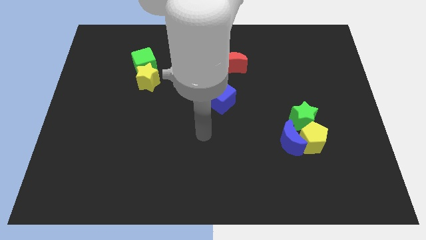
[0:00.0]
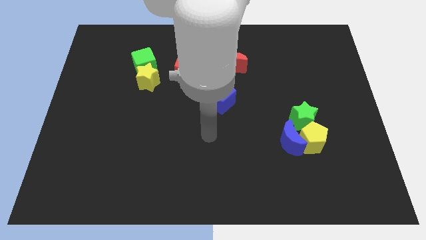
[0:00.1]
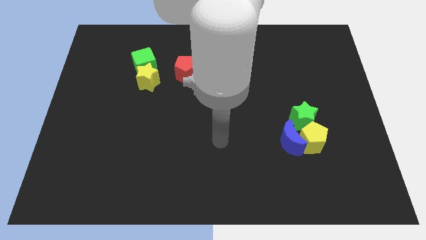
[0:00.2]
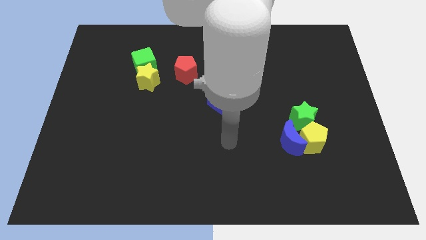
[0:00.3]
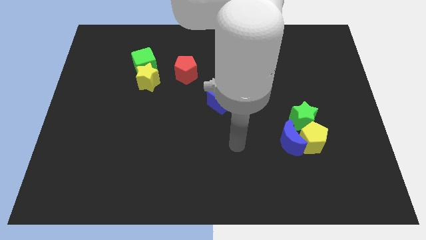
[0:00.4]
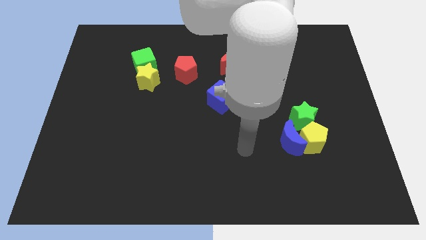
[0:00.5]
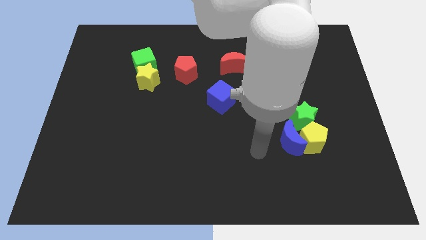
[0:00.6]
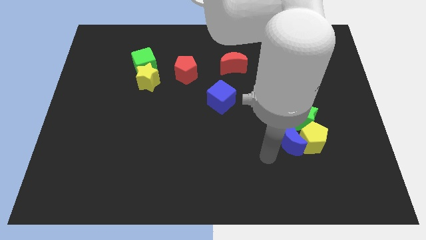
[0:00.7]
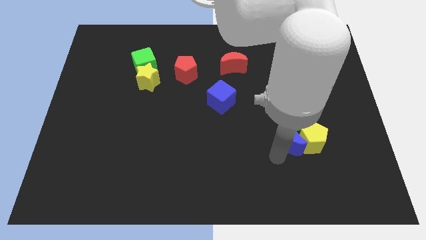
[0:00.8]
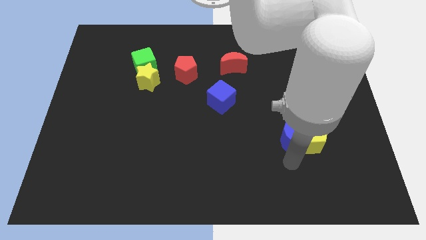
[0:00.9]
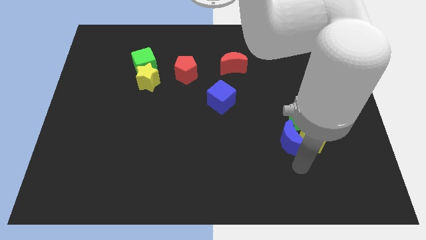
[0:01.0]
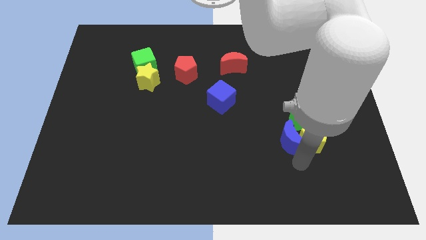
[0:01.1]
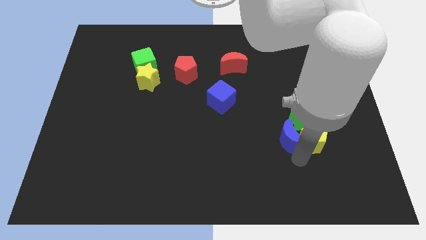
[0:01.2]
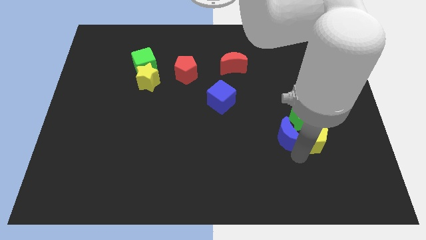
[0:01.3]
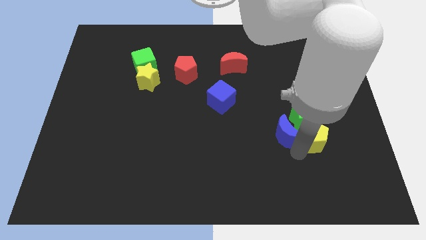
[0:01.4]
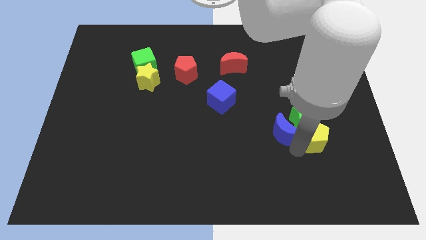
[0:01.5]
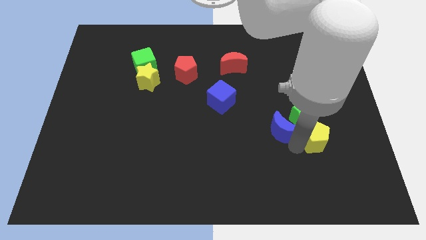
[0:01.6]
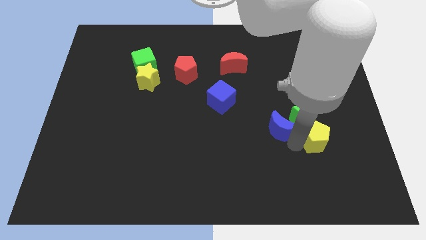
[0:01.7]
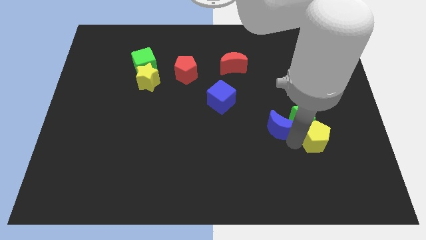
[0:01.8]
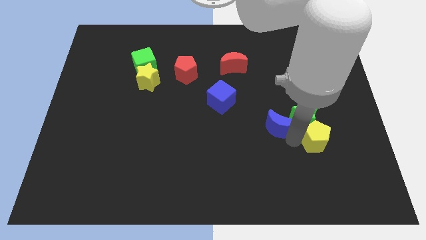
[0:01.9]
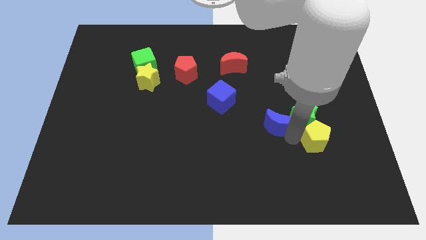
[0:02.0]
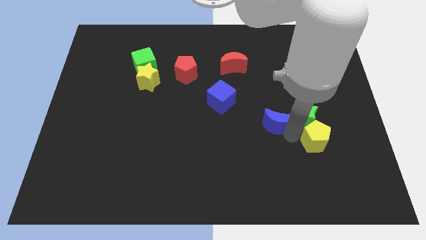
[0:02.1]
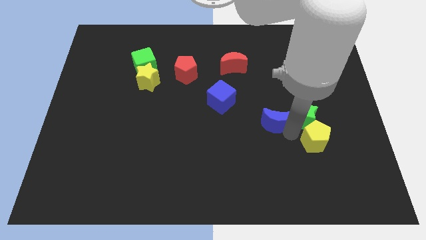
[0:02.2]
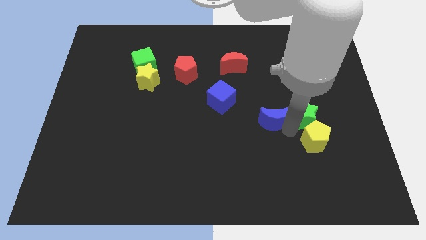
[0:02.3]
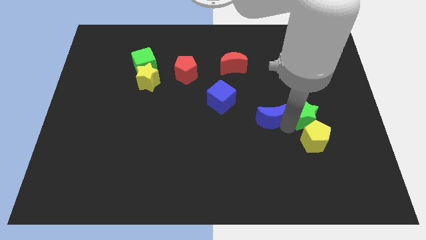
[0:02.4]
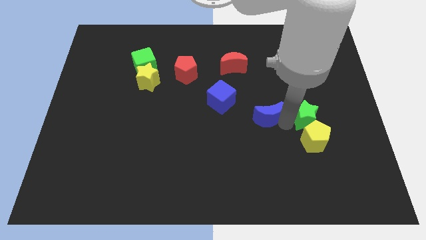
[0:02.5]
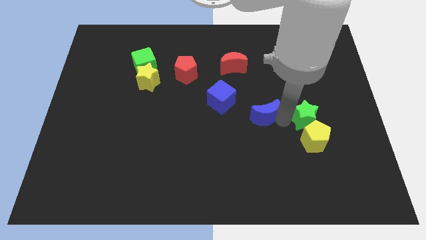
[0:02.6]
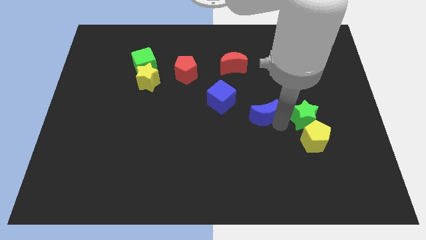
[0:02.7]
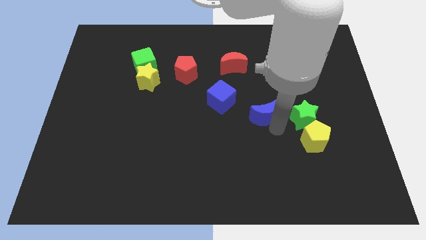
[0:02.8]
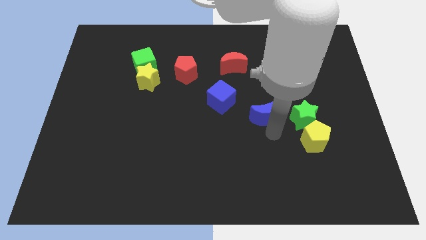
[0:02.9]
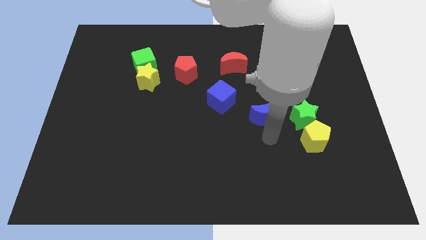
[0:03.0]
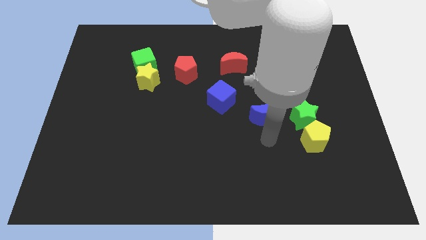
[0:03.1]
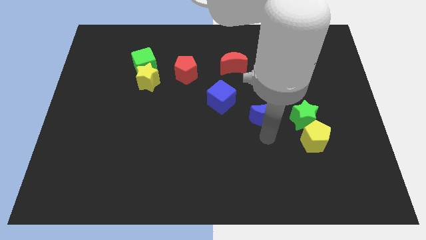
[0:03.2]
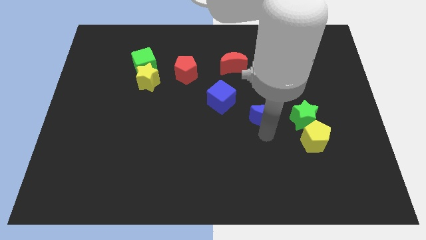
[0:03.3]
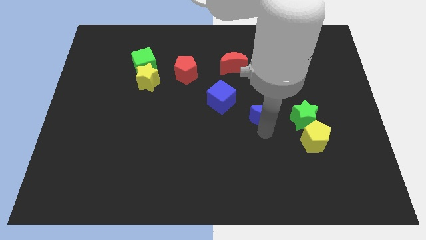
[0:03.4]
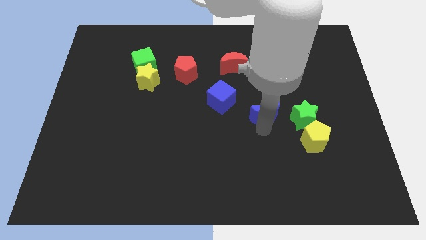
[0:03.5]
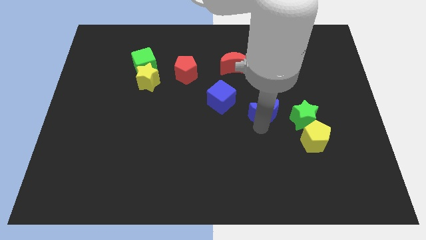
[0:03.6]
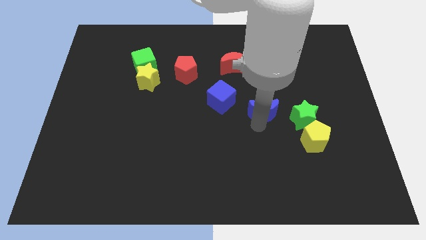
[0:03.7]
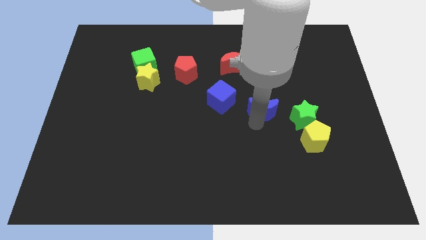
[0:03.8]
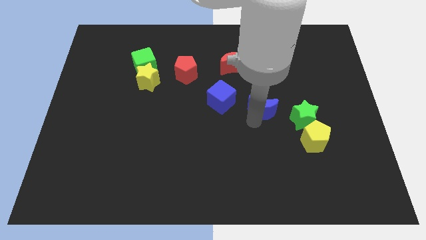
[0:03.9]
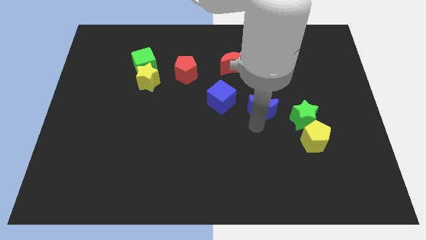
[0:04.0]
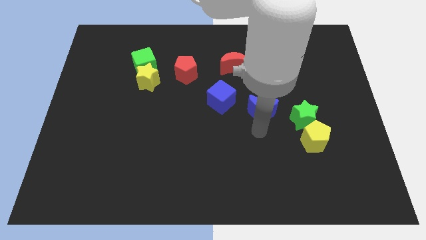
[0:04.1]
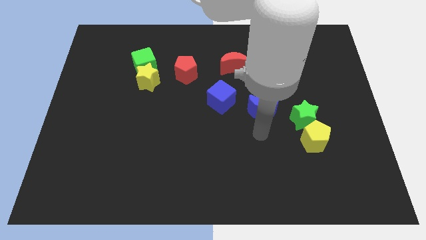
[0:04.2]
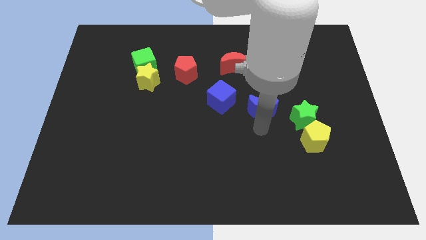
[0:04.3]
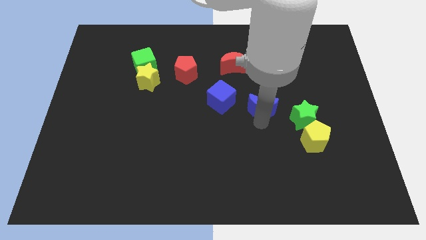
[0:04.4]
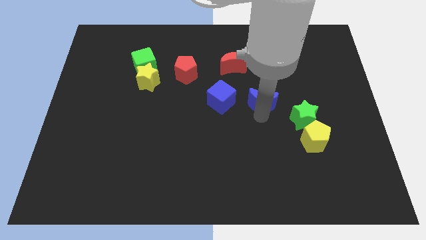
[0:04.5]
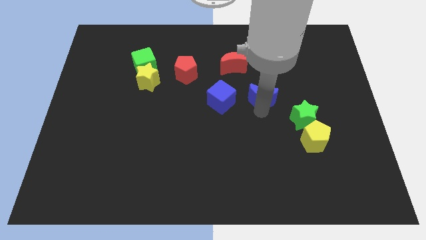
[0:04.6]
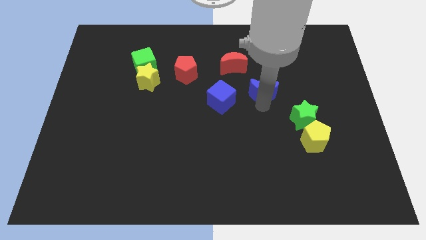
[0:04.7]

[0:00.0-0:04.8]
move the blue moon diagonally down and to the right of the red moon

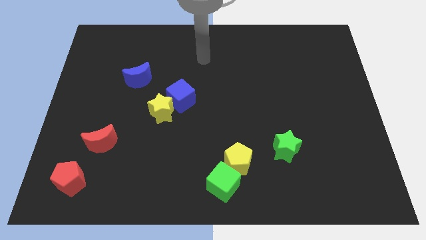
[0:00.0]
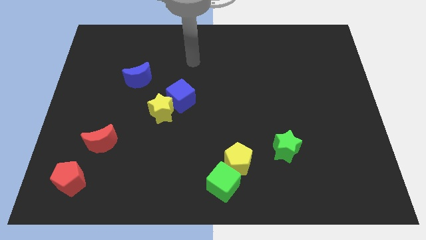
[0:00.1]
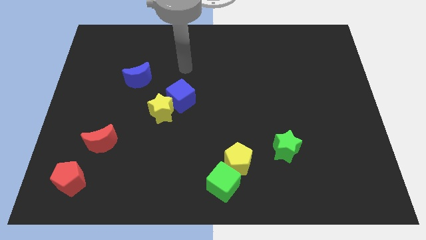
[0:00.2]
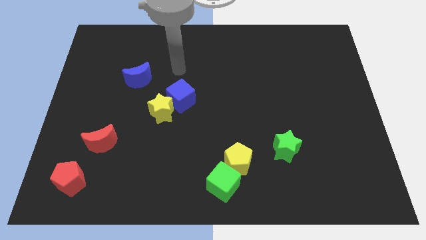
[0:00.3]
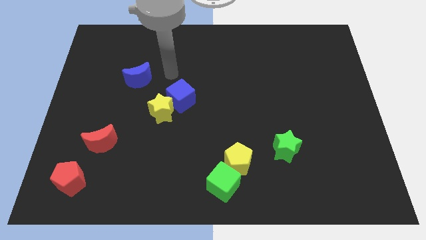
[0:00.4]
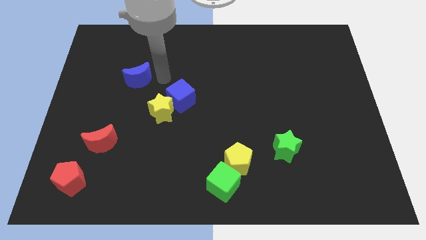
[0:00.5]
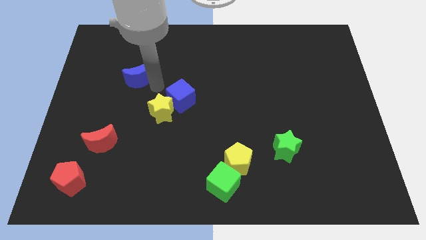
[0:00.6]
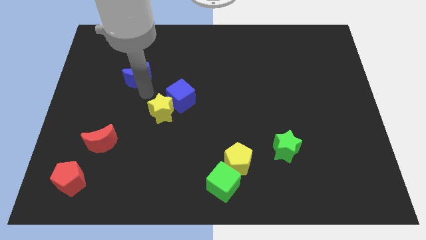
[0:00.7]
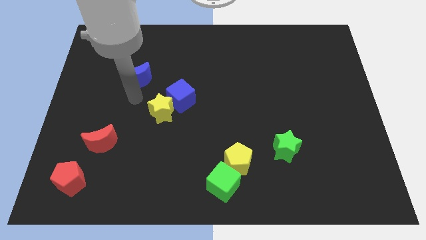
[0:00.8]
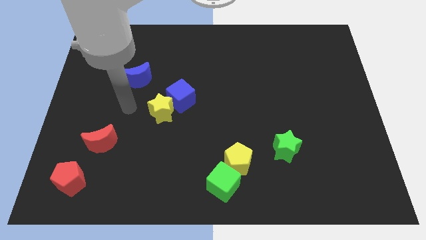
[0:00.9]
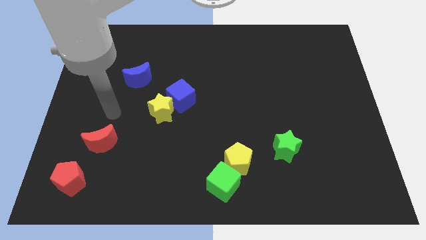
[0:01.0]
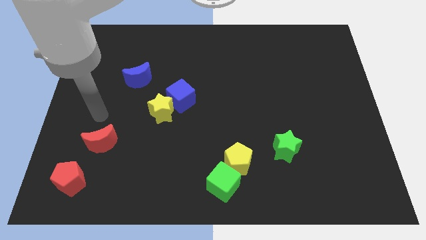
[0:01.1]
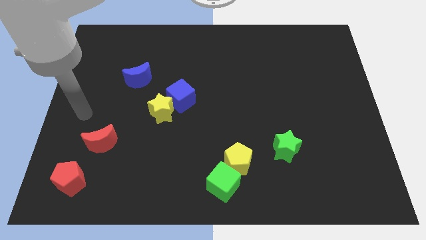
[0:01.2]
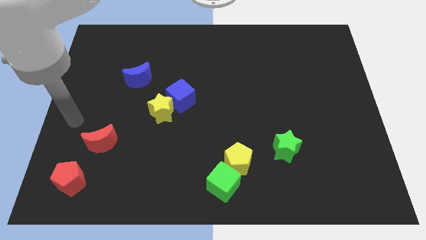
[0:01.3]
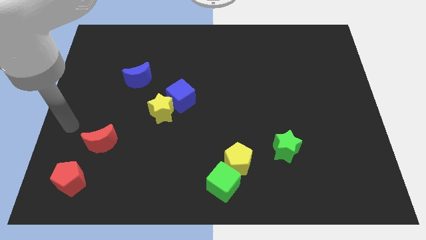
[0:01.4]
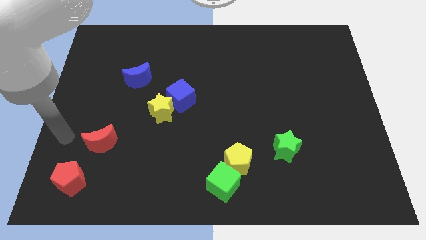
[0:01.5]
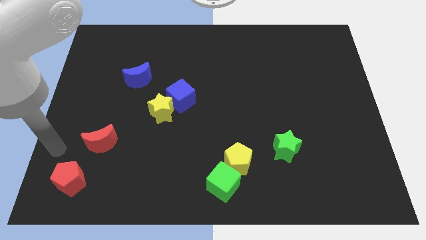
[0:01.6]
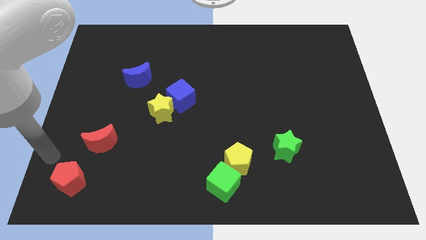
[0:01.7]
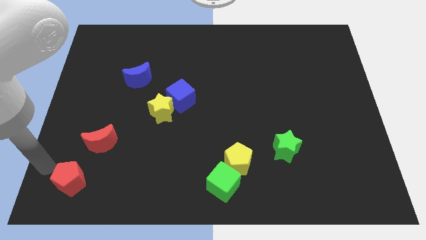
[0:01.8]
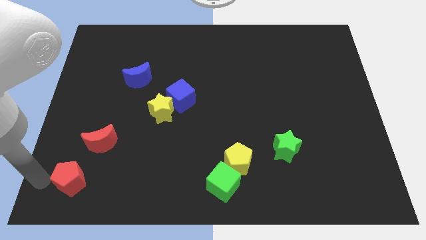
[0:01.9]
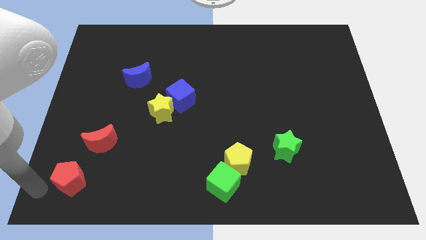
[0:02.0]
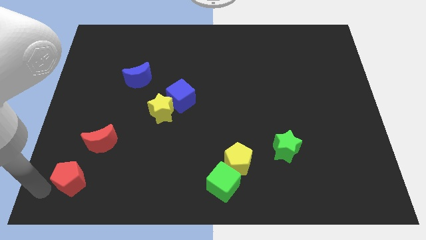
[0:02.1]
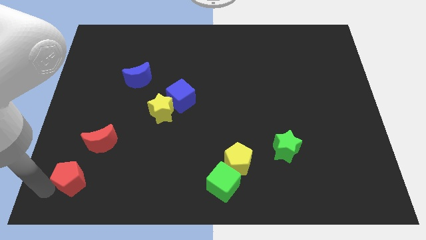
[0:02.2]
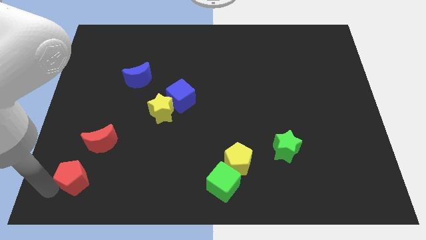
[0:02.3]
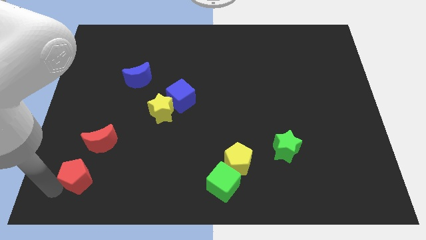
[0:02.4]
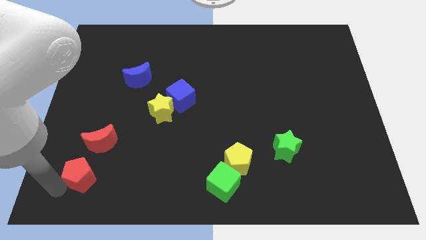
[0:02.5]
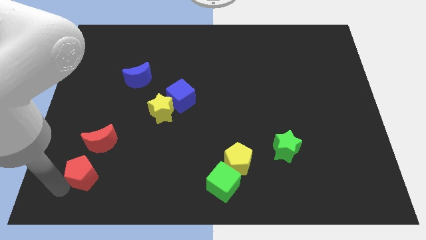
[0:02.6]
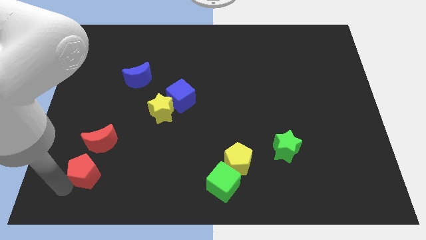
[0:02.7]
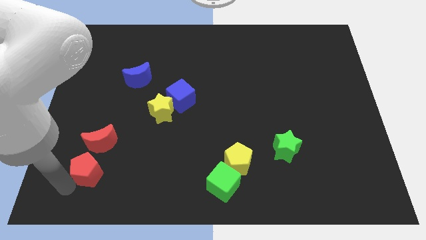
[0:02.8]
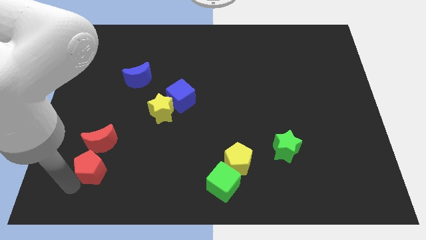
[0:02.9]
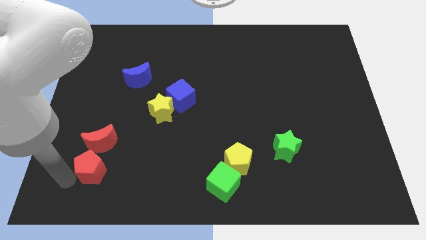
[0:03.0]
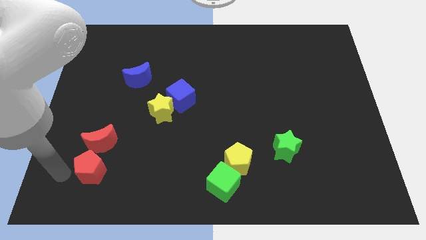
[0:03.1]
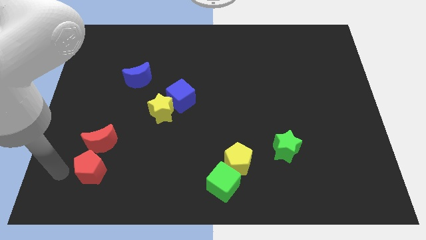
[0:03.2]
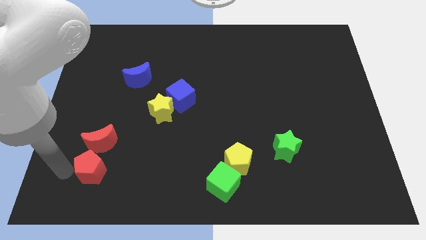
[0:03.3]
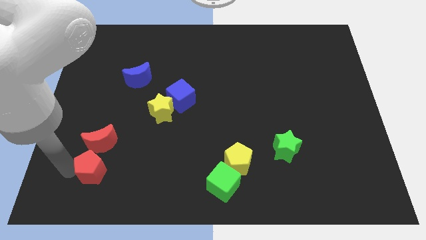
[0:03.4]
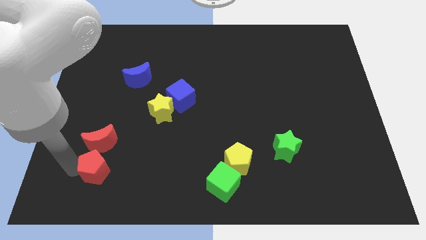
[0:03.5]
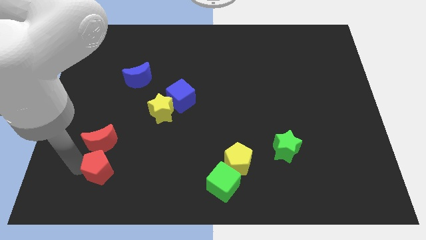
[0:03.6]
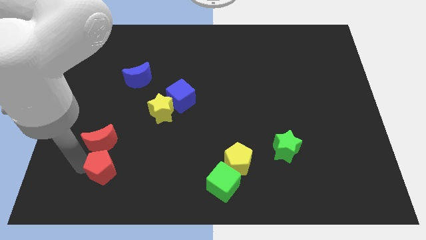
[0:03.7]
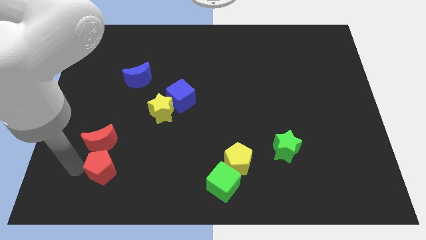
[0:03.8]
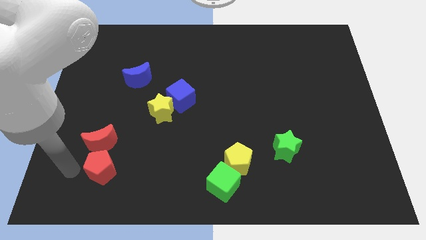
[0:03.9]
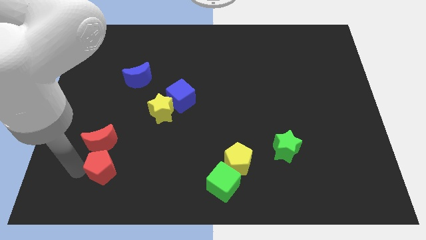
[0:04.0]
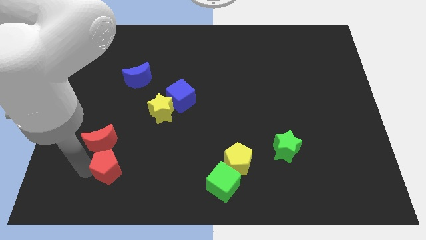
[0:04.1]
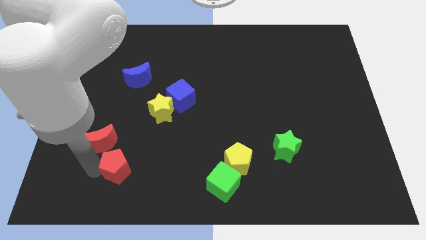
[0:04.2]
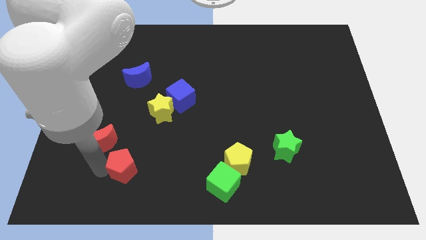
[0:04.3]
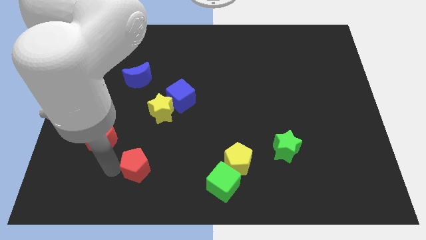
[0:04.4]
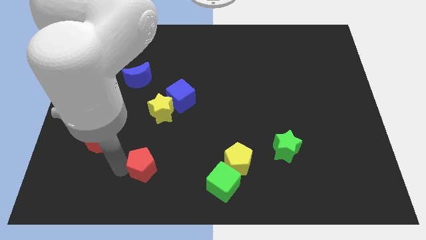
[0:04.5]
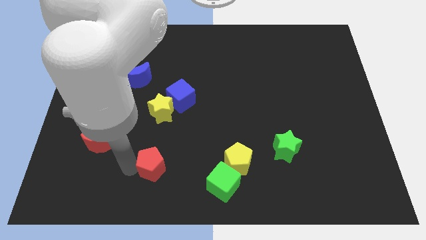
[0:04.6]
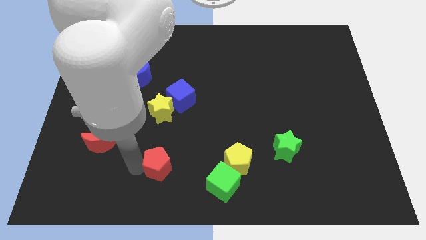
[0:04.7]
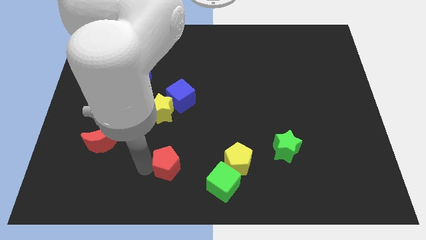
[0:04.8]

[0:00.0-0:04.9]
move the red pentagon to the left of the yellow pentagon
